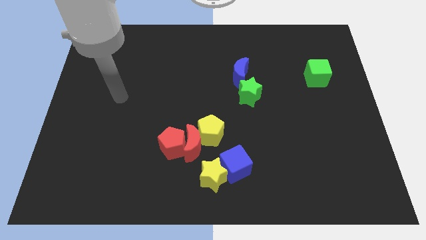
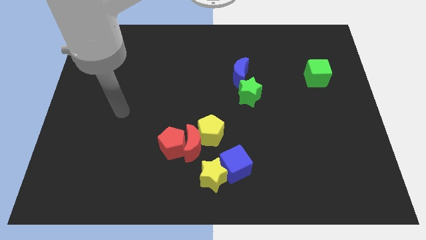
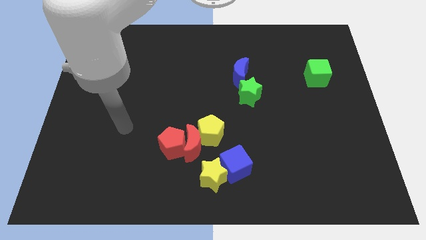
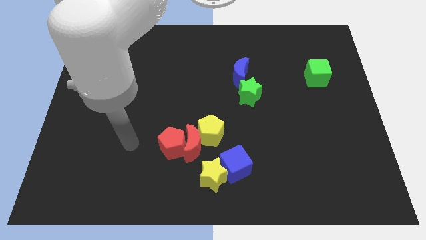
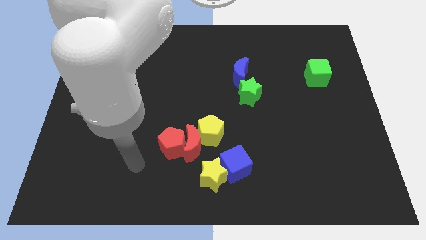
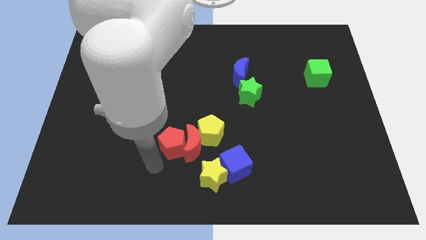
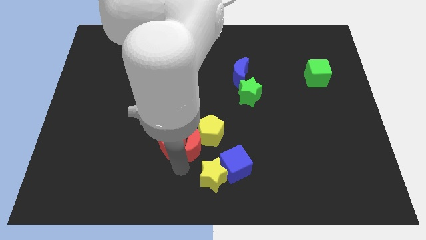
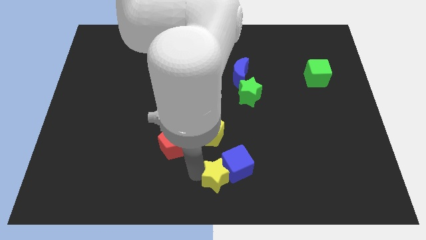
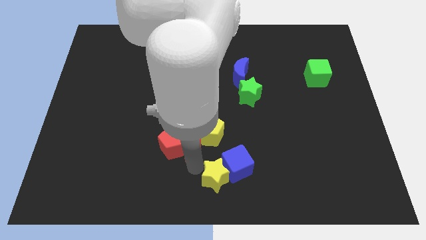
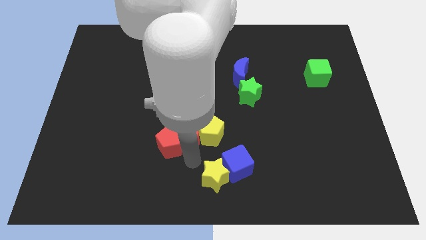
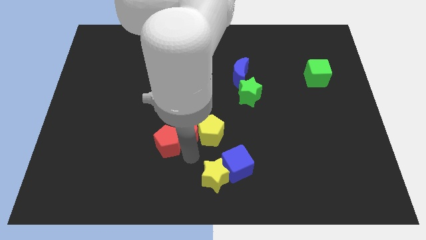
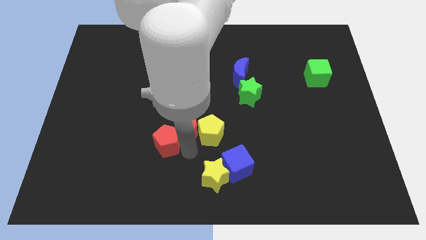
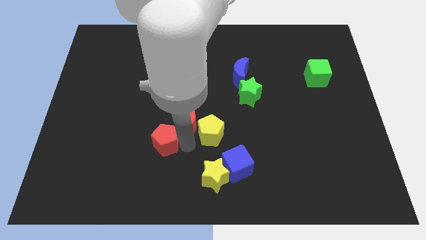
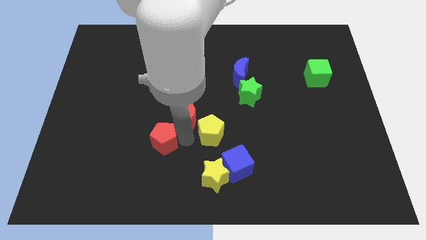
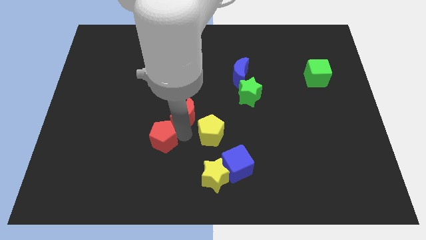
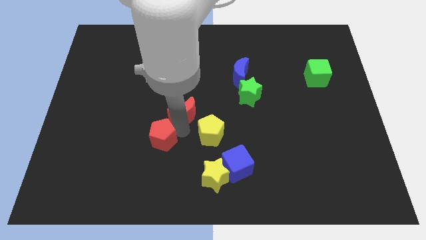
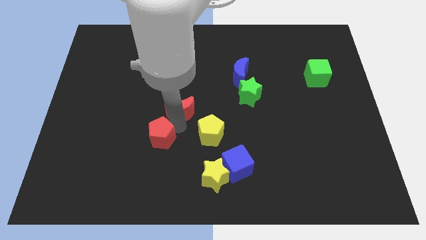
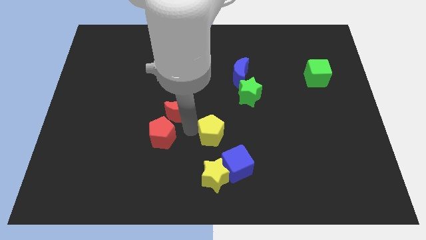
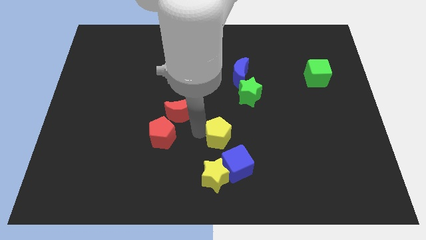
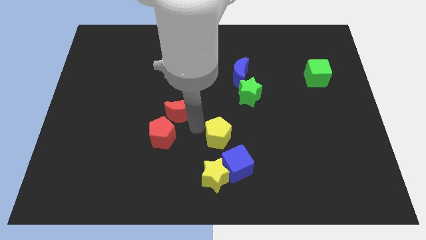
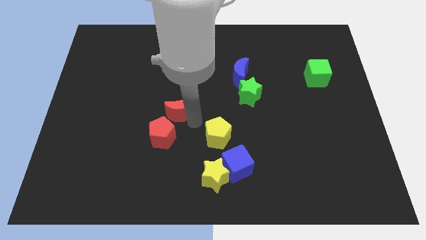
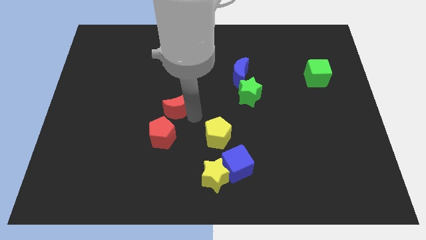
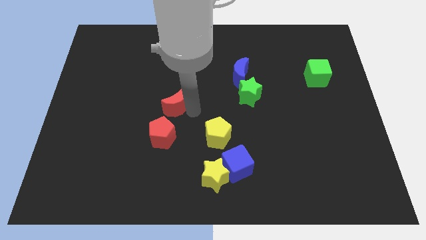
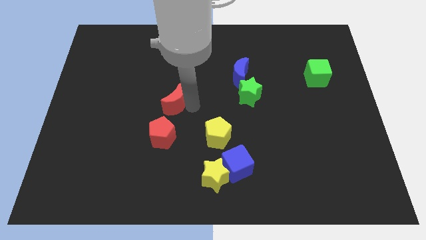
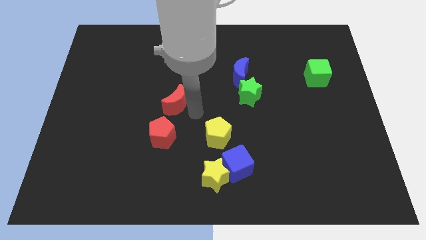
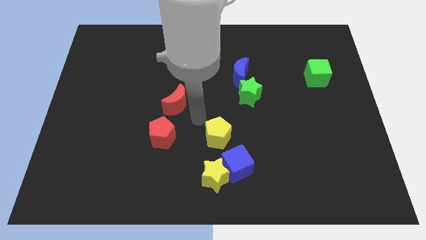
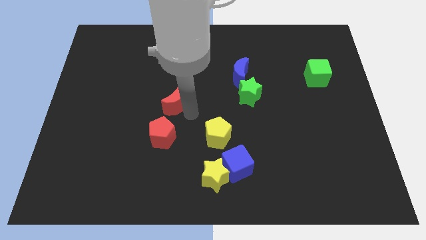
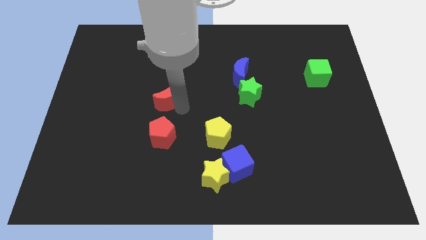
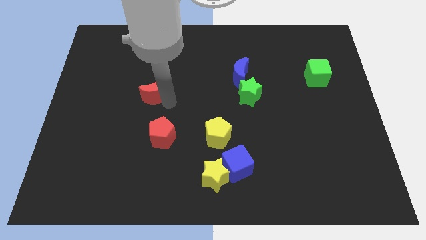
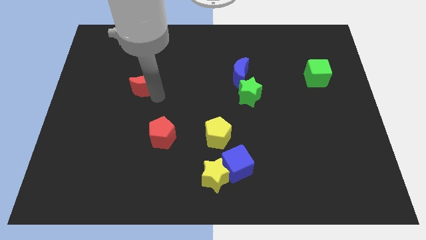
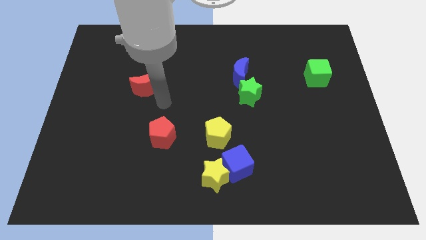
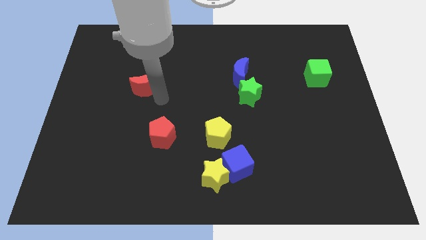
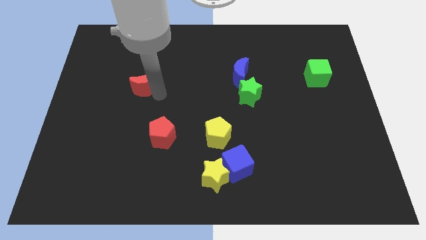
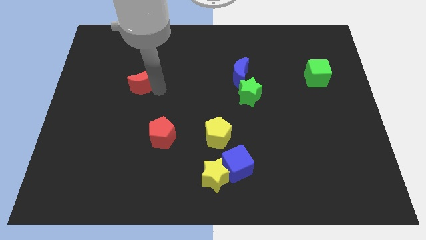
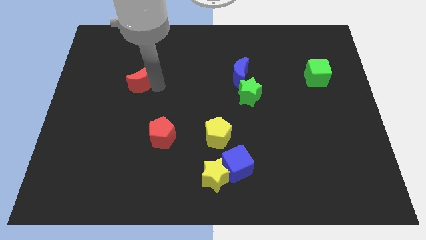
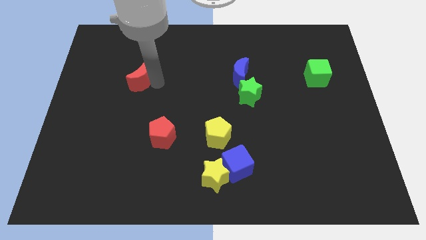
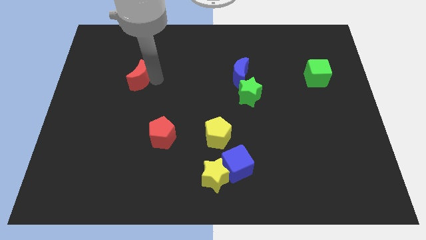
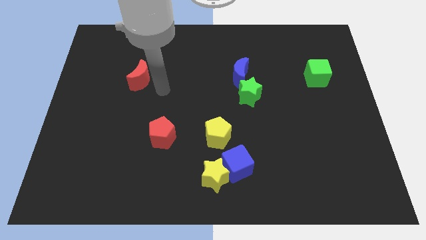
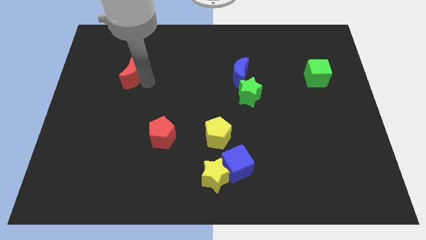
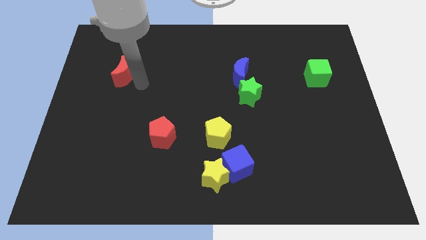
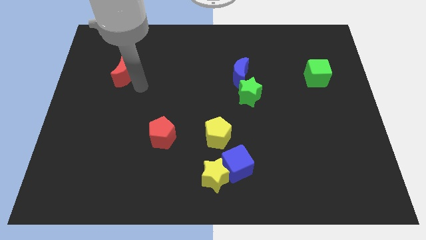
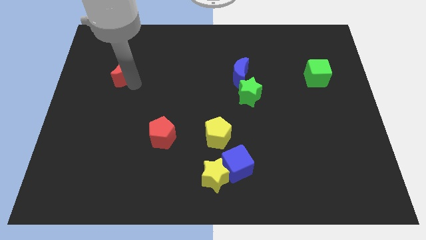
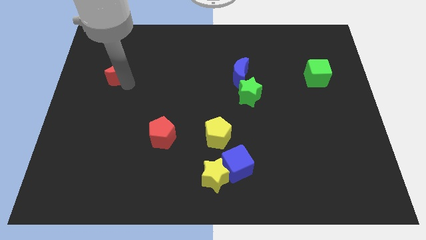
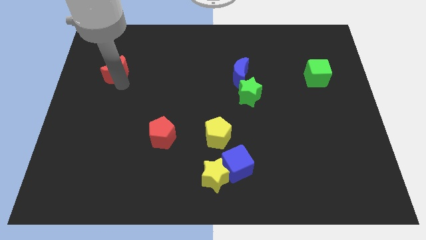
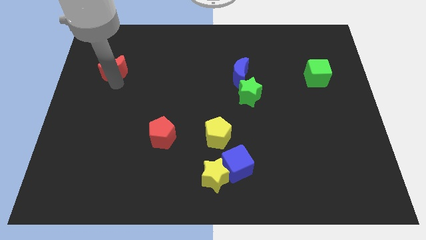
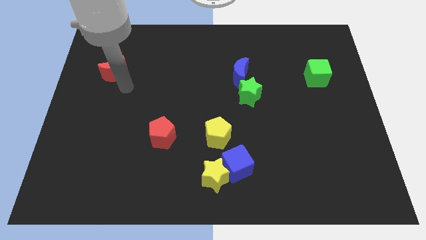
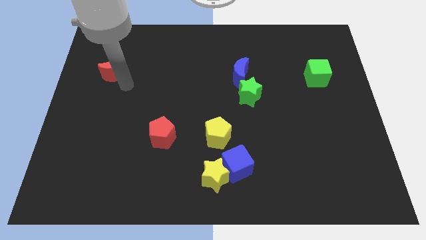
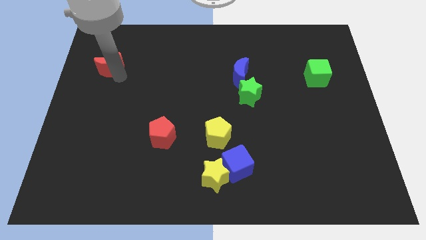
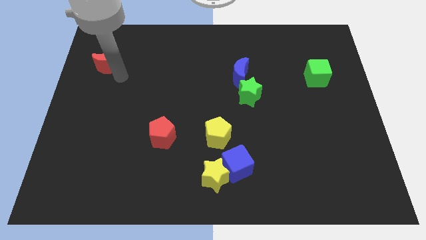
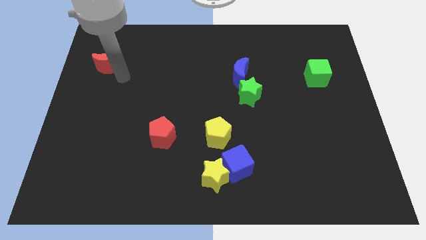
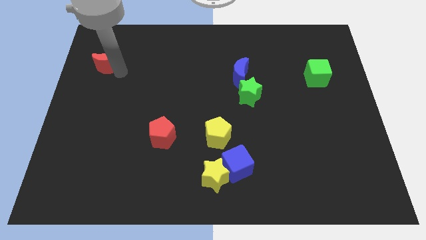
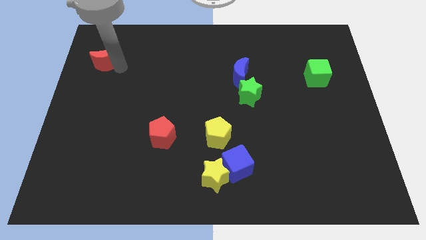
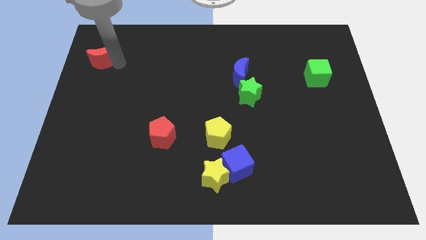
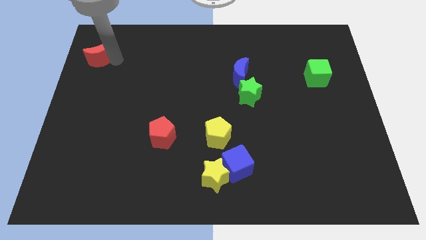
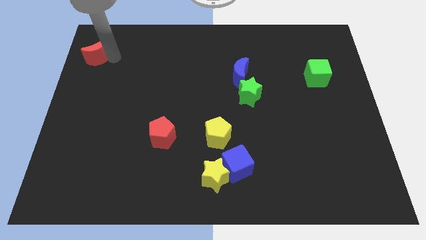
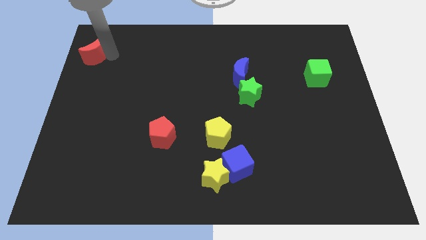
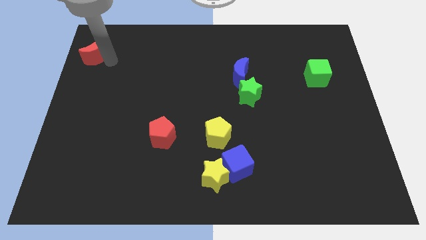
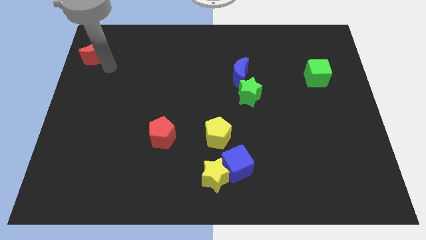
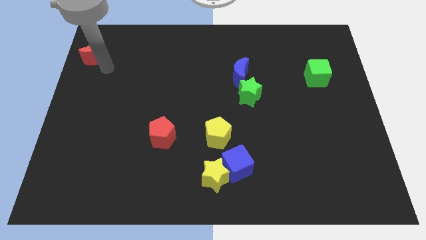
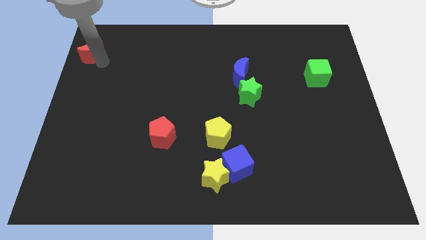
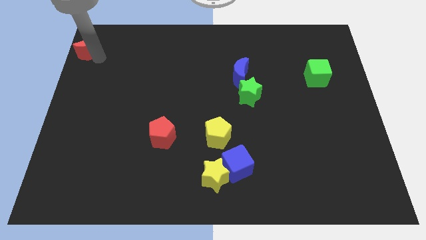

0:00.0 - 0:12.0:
slide the red moon to the top left

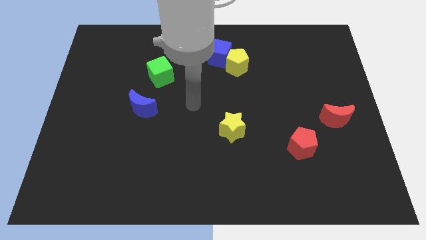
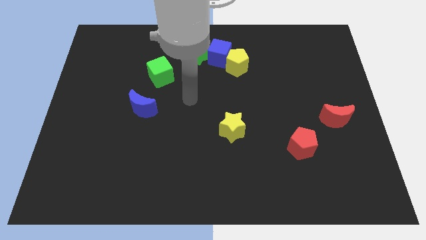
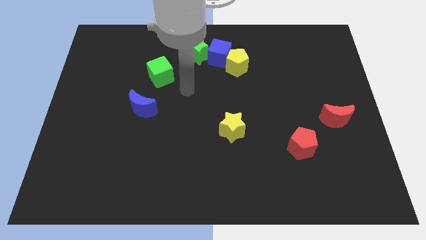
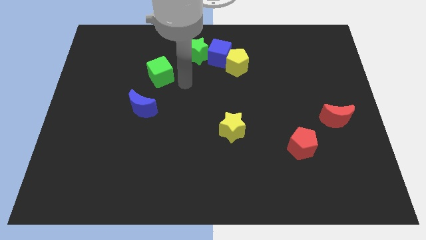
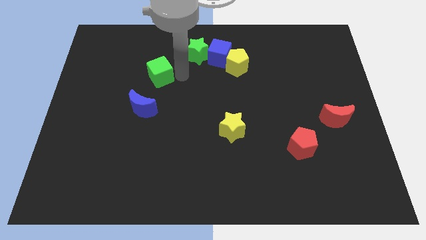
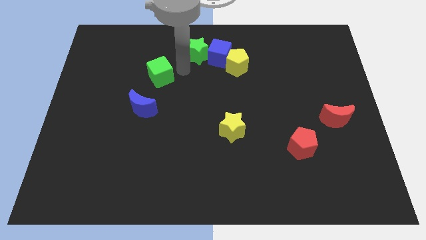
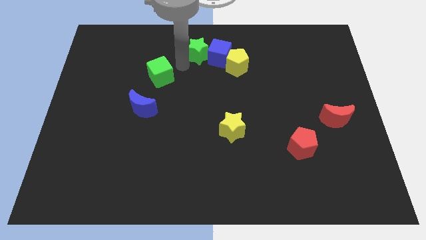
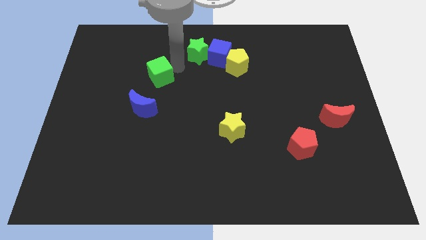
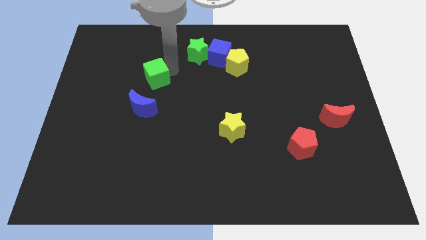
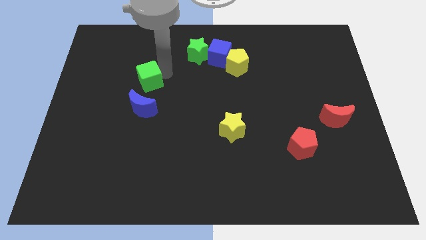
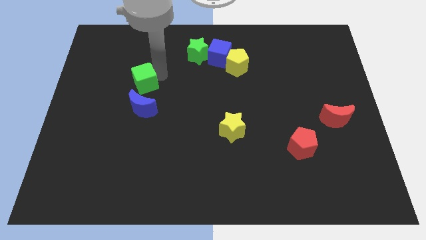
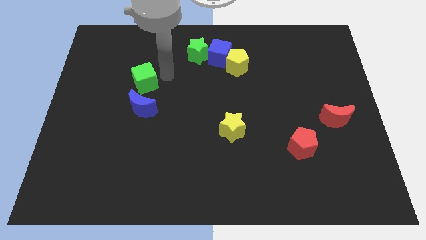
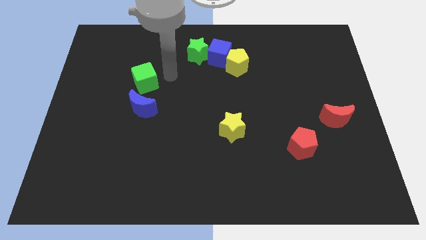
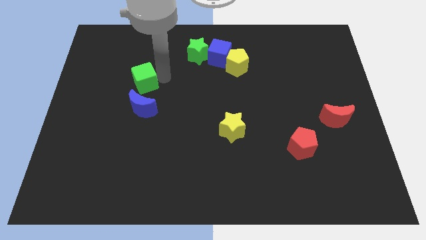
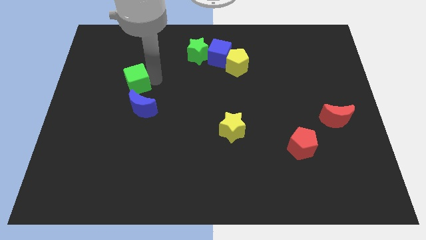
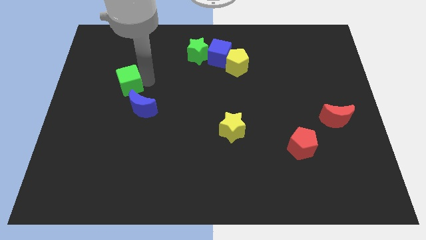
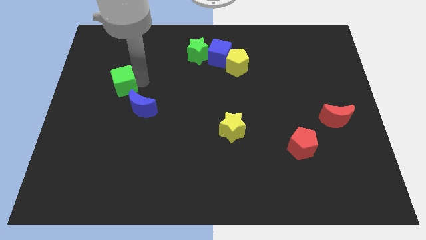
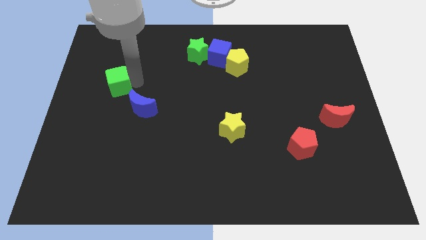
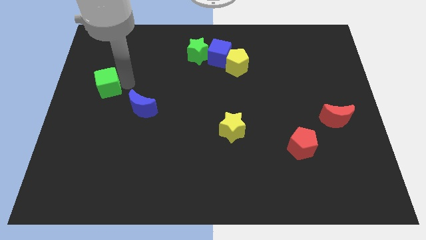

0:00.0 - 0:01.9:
move the green cube to the center left
